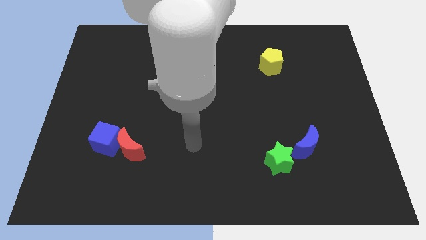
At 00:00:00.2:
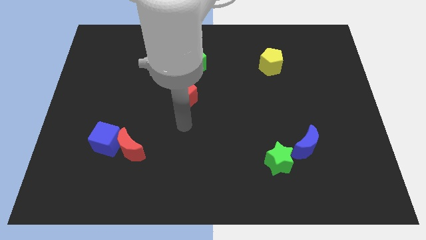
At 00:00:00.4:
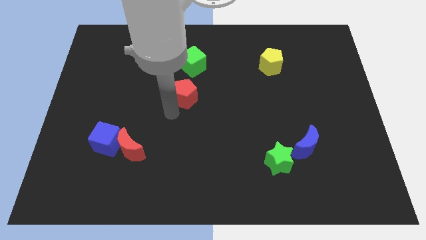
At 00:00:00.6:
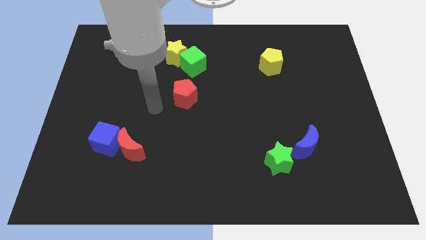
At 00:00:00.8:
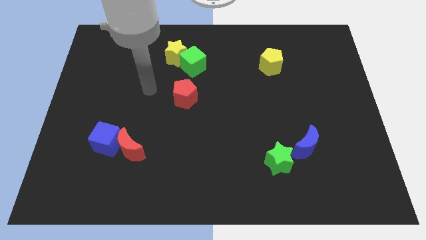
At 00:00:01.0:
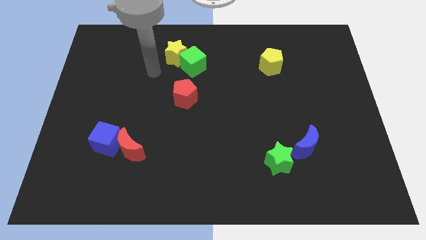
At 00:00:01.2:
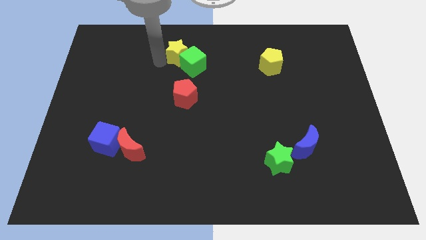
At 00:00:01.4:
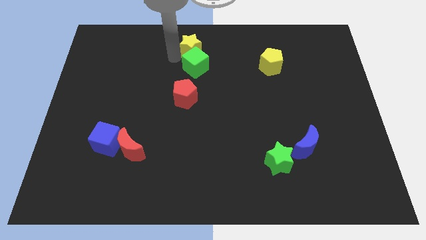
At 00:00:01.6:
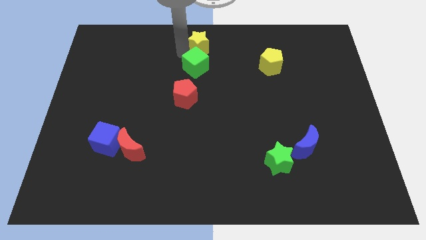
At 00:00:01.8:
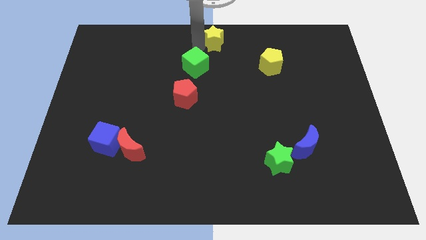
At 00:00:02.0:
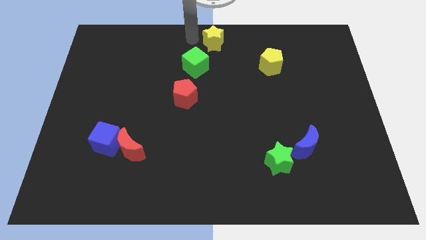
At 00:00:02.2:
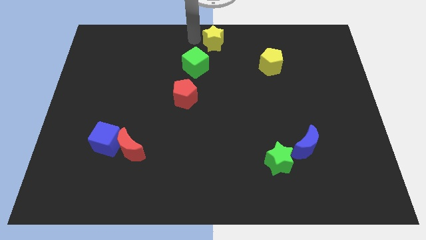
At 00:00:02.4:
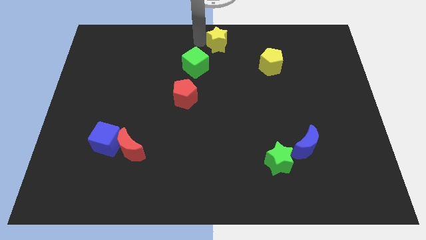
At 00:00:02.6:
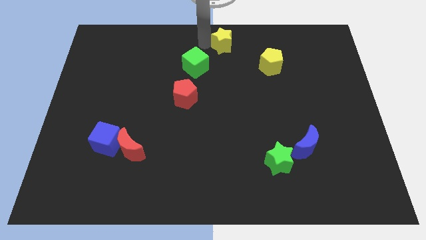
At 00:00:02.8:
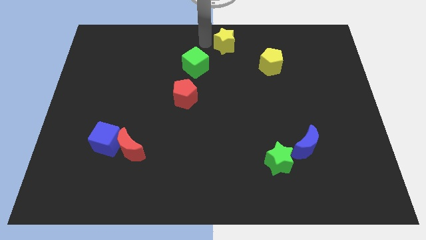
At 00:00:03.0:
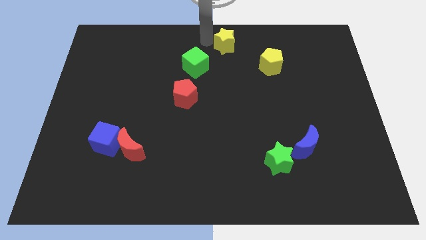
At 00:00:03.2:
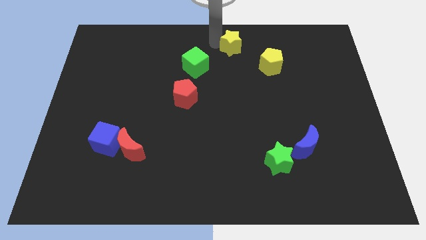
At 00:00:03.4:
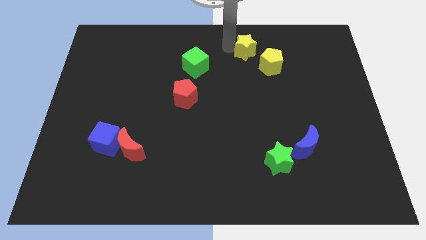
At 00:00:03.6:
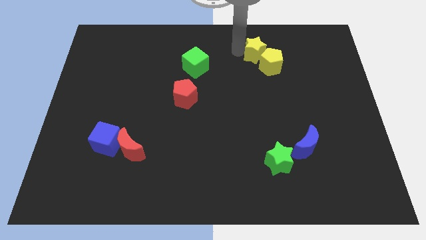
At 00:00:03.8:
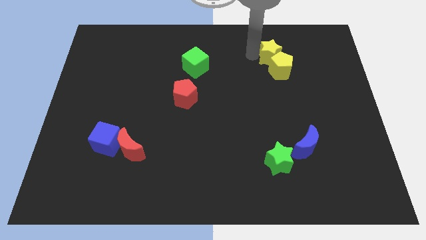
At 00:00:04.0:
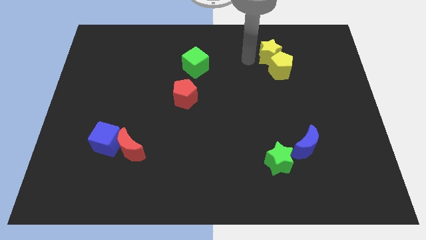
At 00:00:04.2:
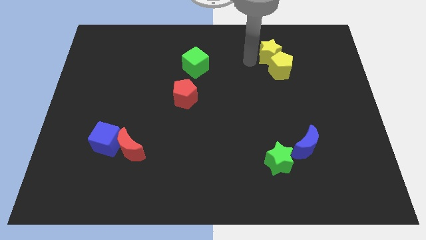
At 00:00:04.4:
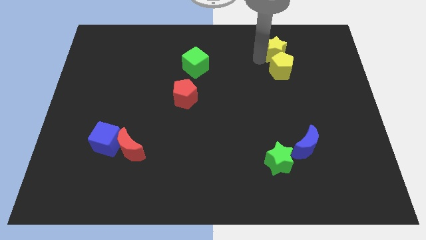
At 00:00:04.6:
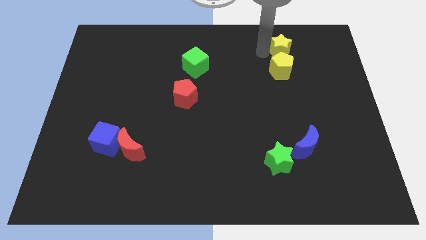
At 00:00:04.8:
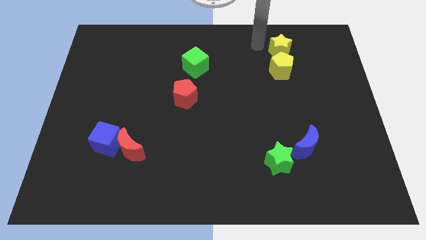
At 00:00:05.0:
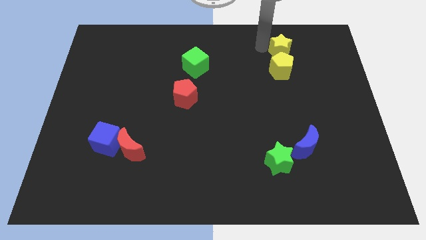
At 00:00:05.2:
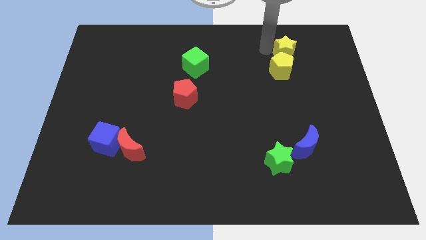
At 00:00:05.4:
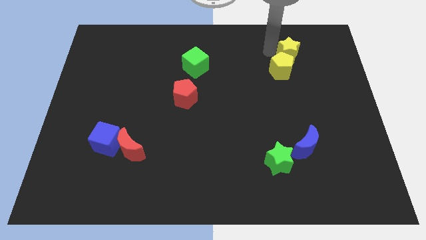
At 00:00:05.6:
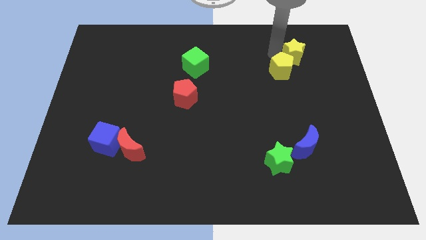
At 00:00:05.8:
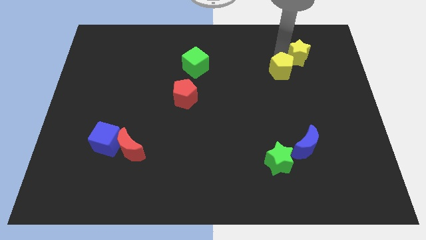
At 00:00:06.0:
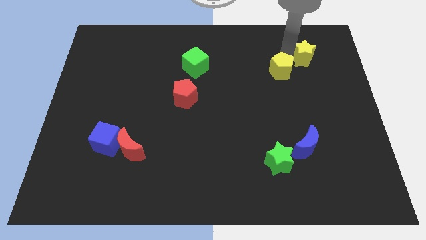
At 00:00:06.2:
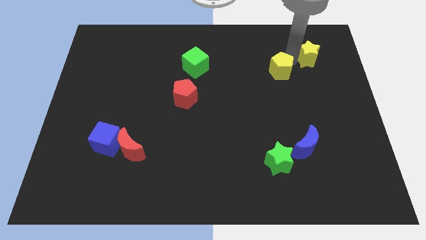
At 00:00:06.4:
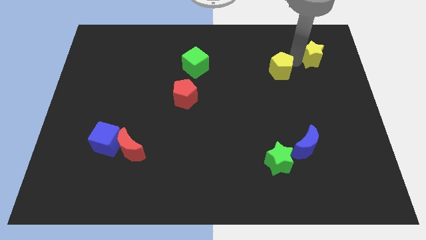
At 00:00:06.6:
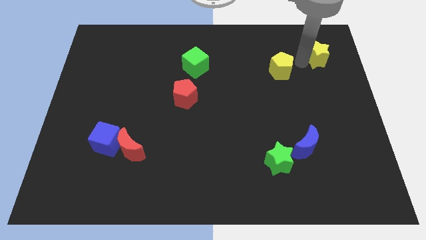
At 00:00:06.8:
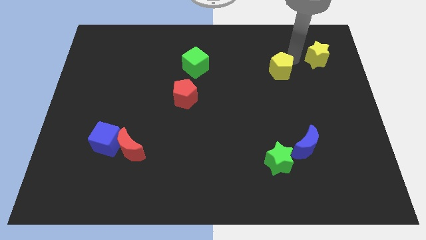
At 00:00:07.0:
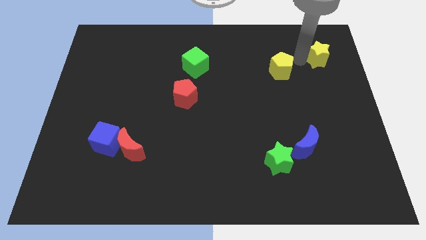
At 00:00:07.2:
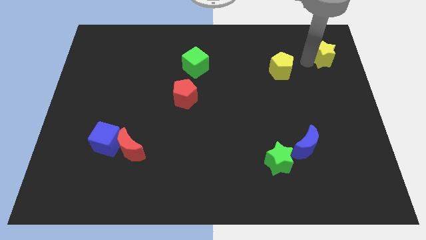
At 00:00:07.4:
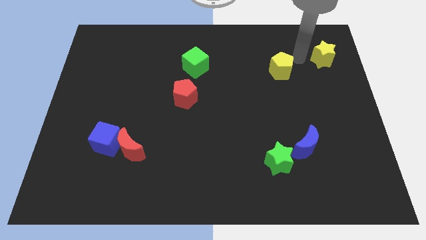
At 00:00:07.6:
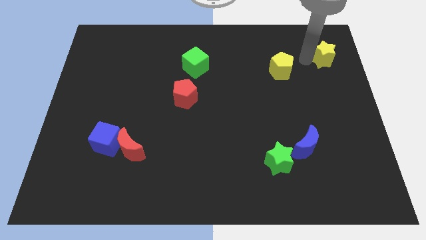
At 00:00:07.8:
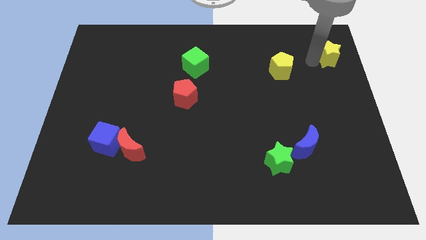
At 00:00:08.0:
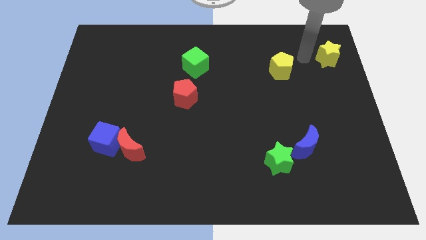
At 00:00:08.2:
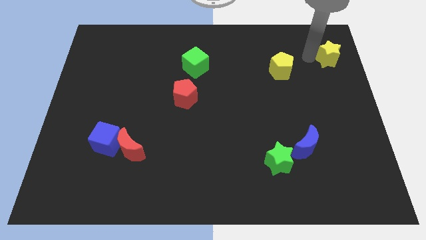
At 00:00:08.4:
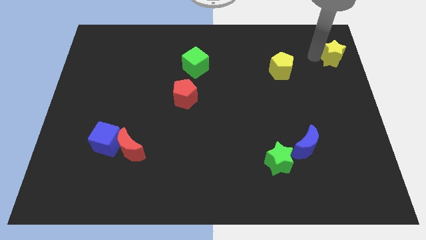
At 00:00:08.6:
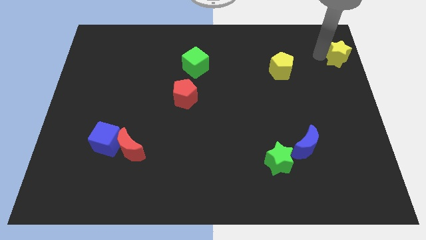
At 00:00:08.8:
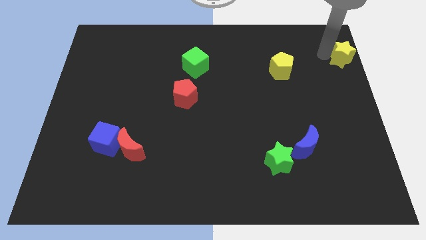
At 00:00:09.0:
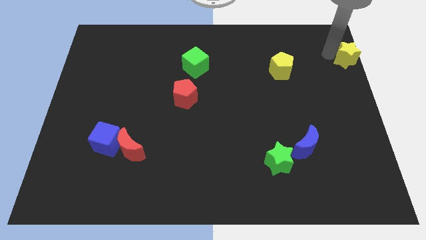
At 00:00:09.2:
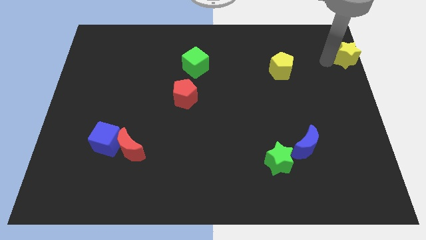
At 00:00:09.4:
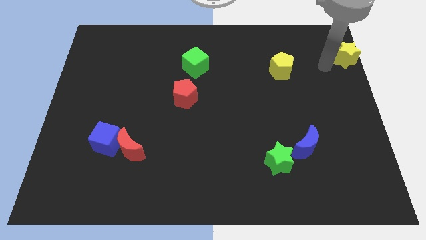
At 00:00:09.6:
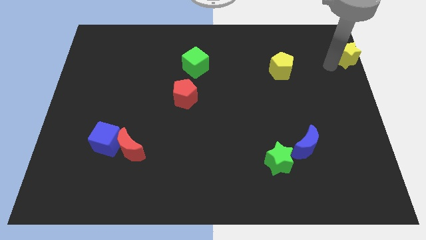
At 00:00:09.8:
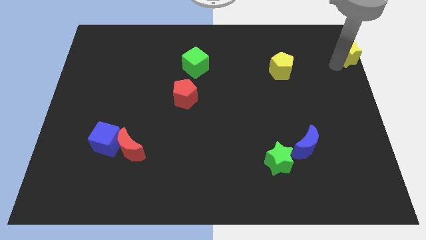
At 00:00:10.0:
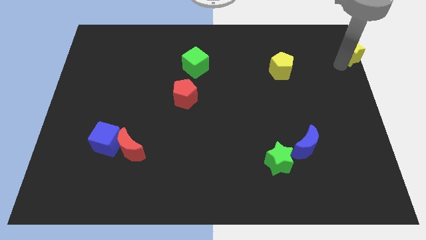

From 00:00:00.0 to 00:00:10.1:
put the yellow star to the top right of the board

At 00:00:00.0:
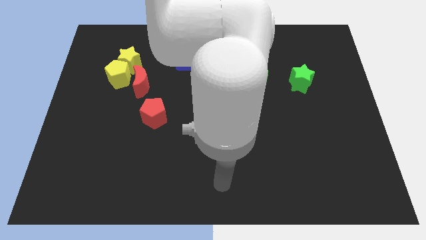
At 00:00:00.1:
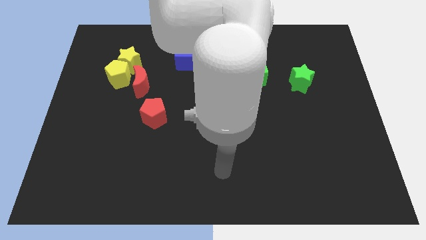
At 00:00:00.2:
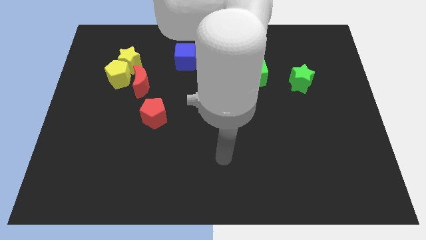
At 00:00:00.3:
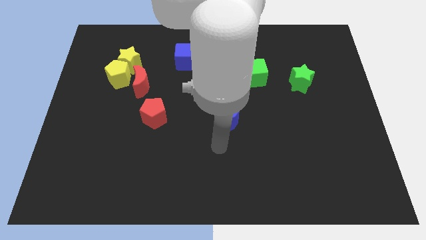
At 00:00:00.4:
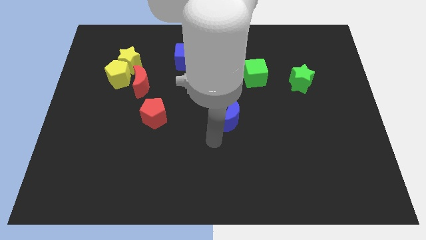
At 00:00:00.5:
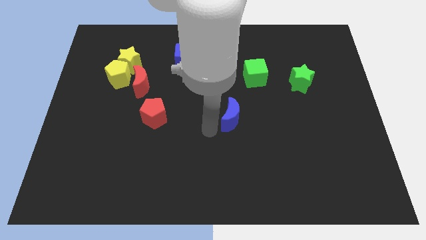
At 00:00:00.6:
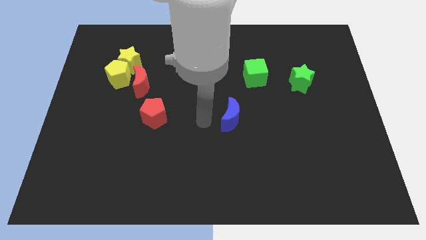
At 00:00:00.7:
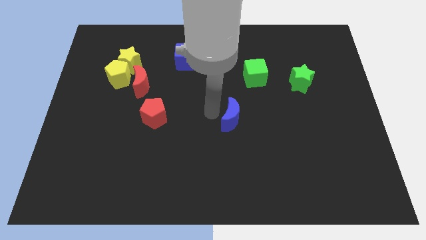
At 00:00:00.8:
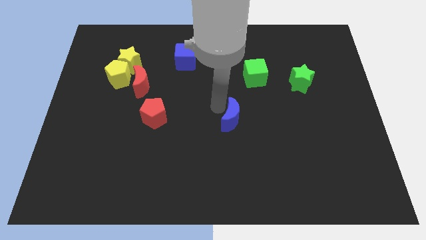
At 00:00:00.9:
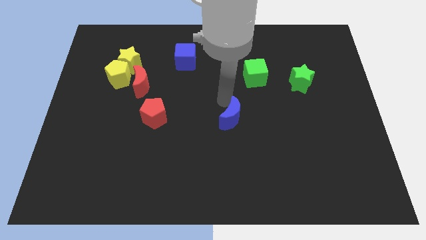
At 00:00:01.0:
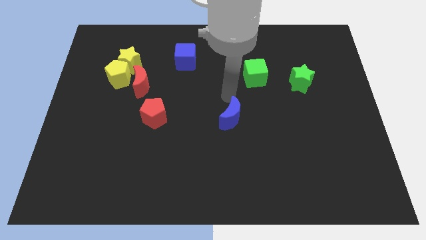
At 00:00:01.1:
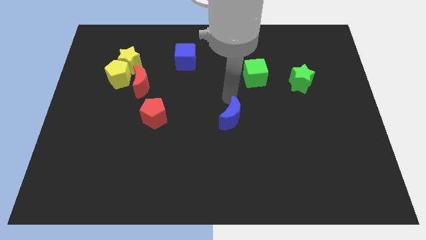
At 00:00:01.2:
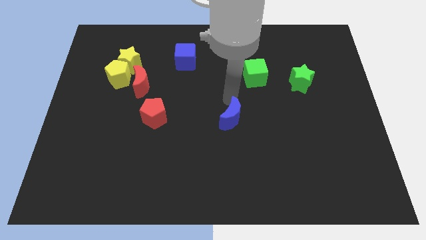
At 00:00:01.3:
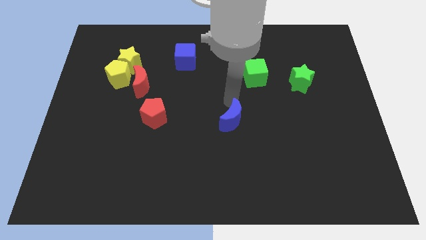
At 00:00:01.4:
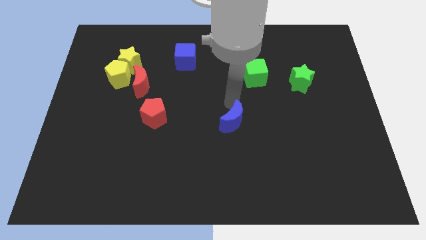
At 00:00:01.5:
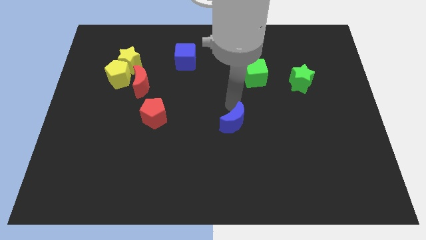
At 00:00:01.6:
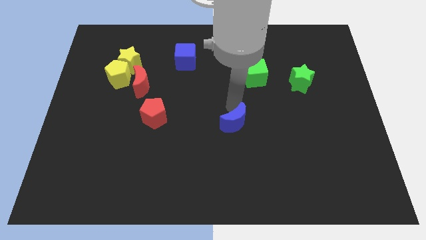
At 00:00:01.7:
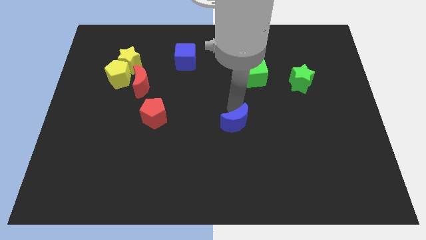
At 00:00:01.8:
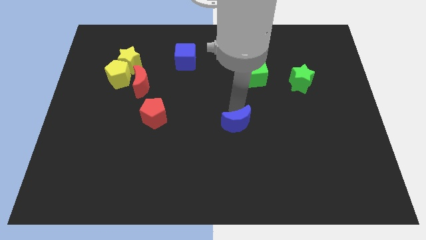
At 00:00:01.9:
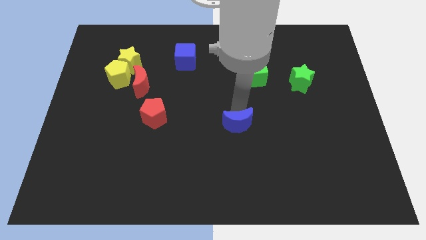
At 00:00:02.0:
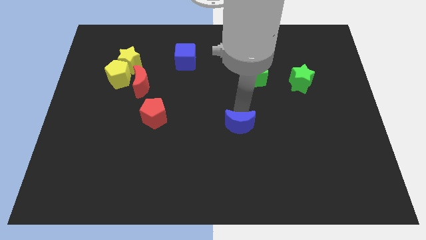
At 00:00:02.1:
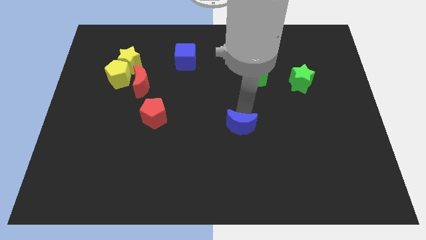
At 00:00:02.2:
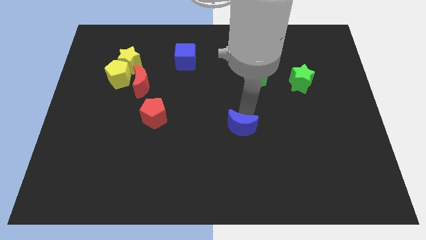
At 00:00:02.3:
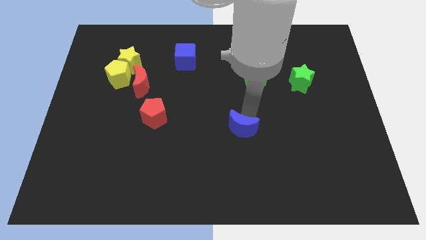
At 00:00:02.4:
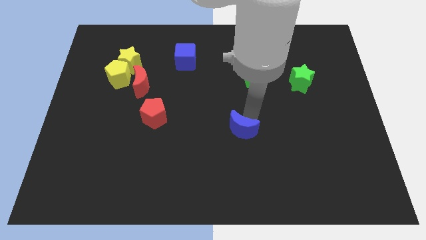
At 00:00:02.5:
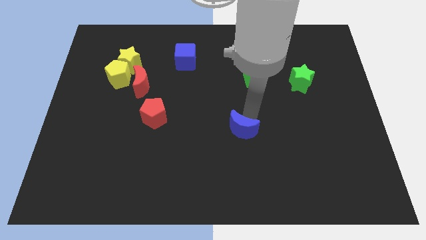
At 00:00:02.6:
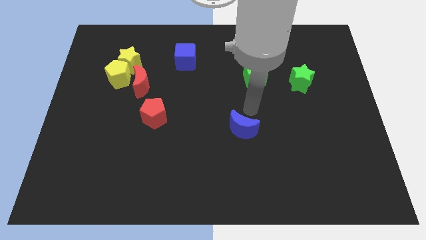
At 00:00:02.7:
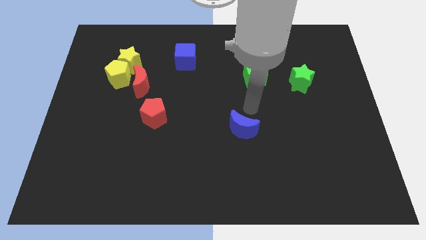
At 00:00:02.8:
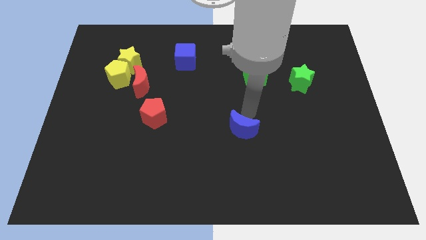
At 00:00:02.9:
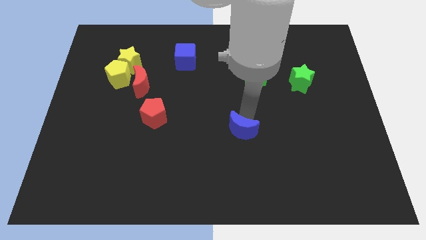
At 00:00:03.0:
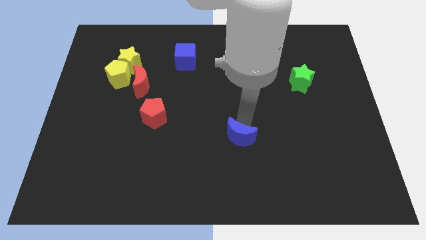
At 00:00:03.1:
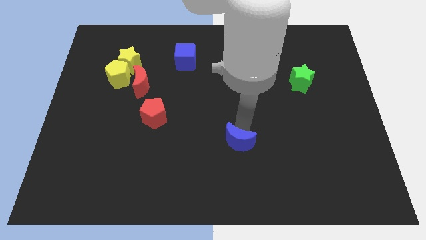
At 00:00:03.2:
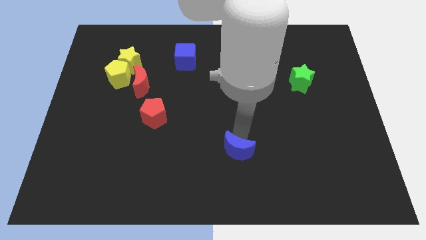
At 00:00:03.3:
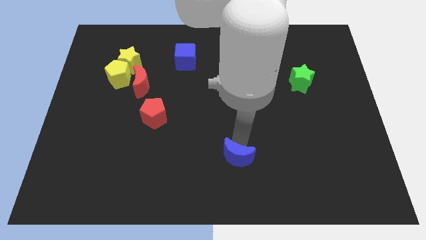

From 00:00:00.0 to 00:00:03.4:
slide the blue moon to the bottom
